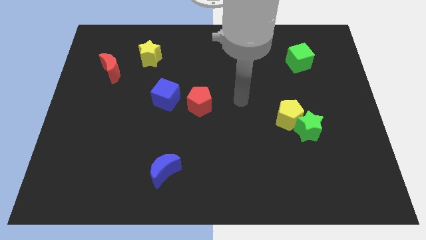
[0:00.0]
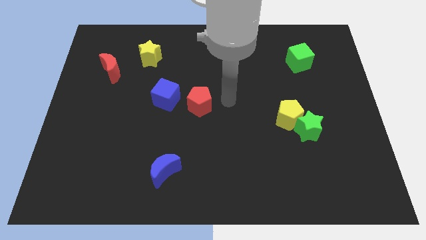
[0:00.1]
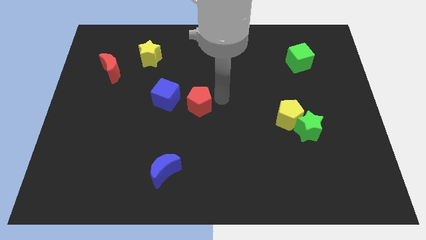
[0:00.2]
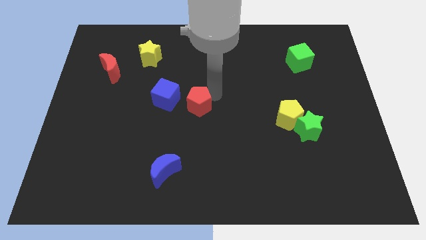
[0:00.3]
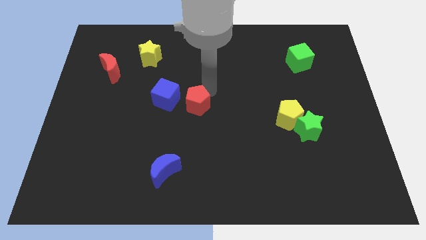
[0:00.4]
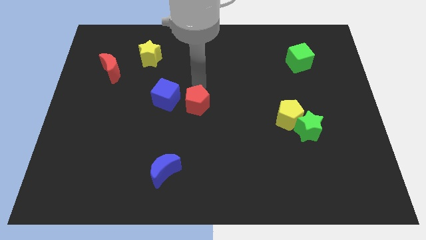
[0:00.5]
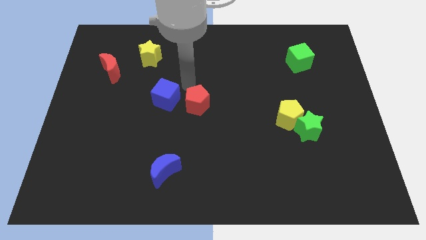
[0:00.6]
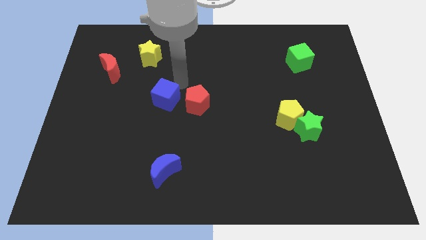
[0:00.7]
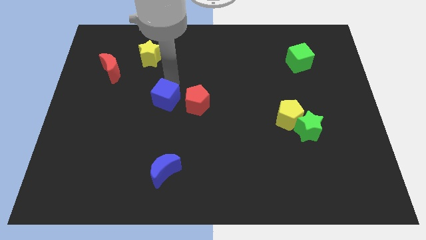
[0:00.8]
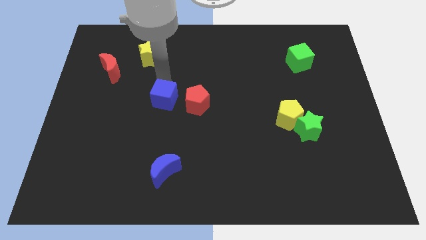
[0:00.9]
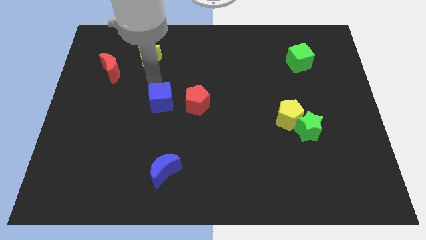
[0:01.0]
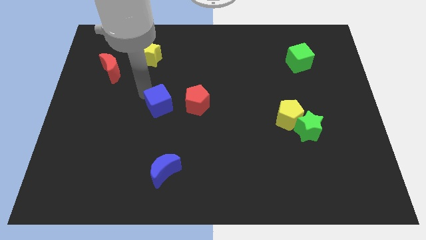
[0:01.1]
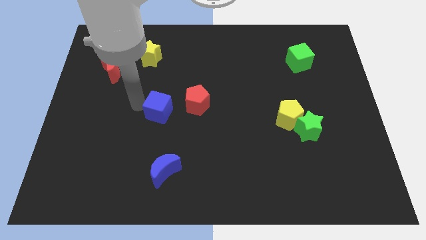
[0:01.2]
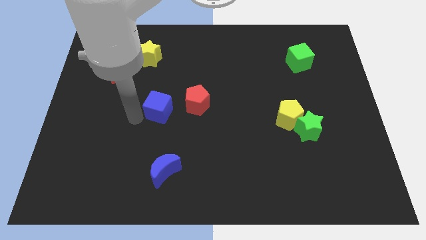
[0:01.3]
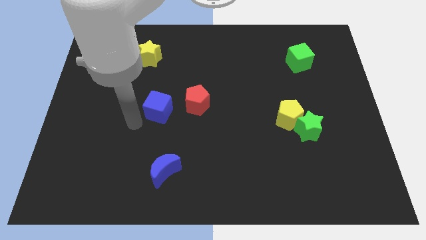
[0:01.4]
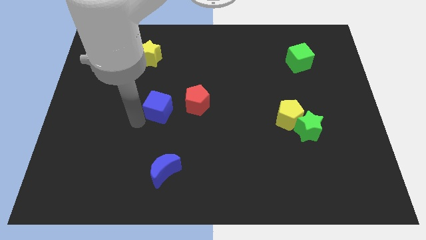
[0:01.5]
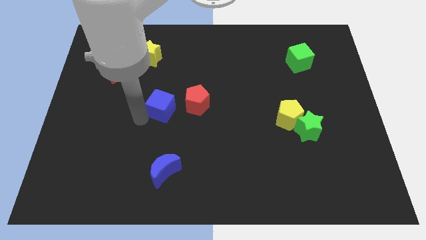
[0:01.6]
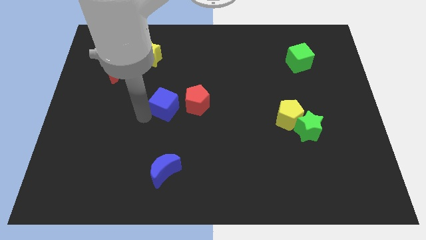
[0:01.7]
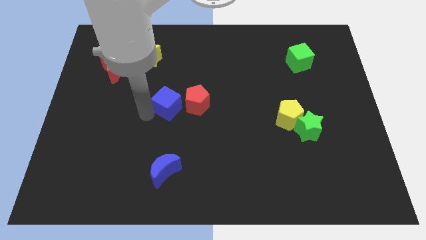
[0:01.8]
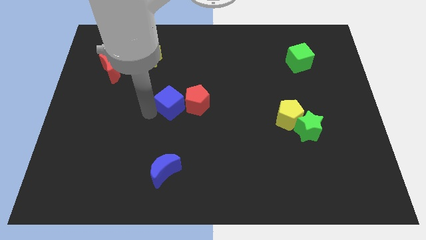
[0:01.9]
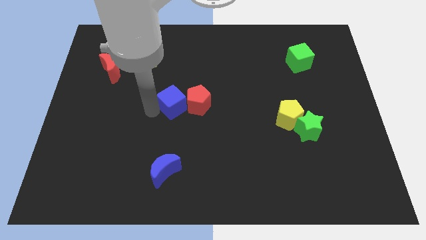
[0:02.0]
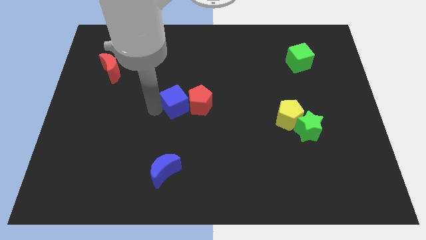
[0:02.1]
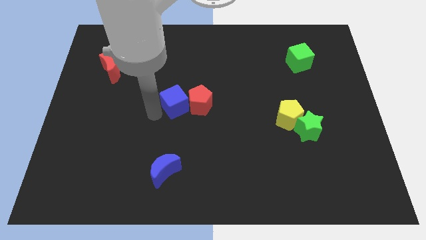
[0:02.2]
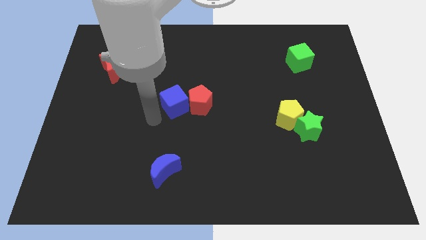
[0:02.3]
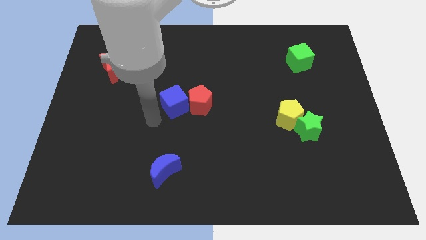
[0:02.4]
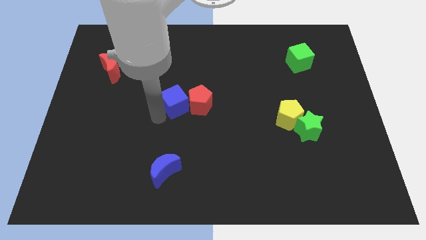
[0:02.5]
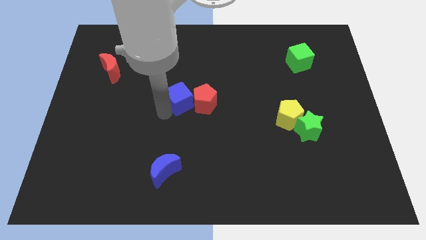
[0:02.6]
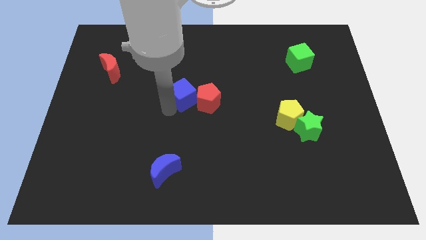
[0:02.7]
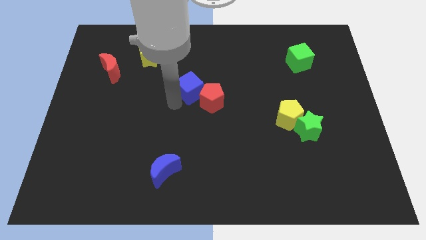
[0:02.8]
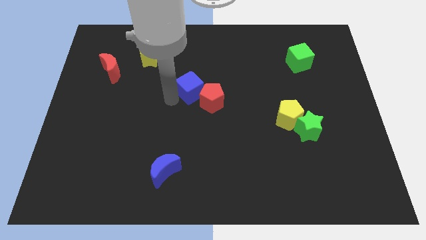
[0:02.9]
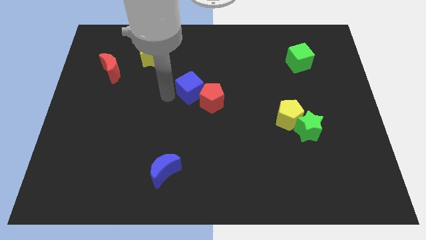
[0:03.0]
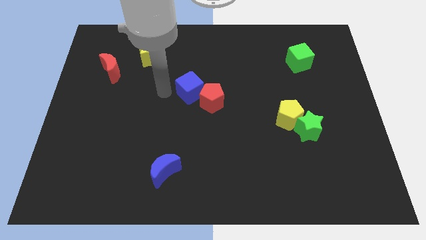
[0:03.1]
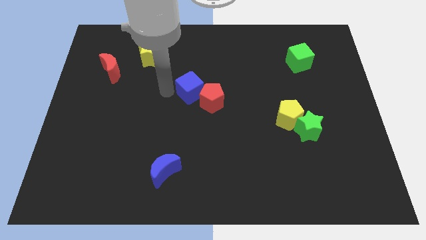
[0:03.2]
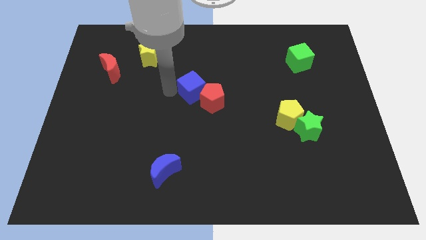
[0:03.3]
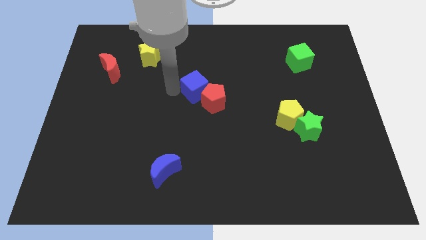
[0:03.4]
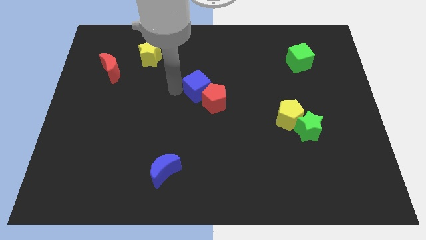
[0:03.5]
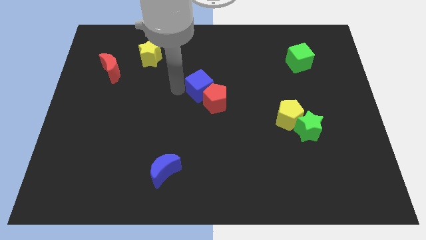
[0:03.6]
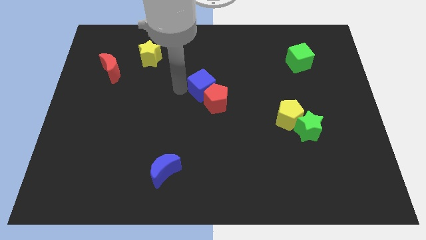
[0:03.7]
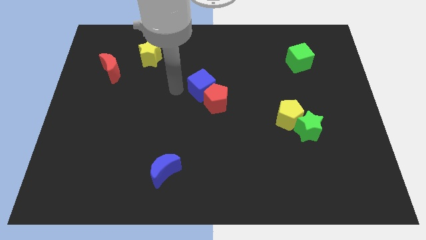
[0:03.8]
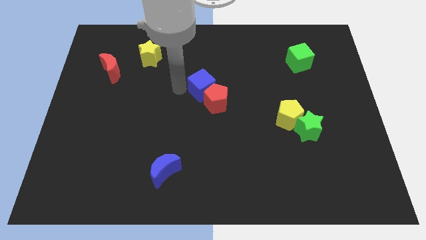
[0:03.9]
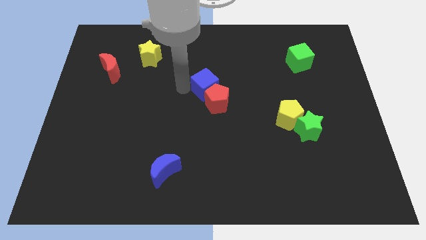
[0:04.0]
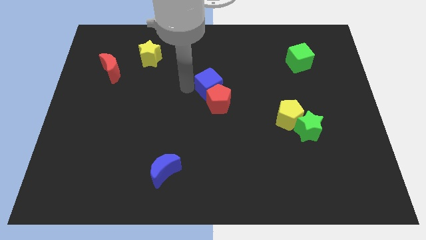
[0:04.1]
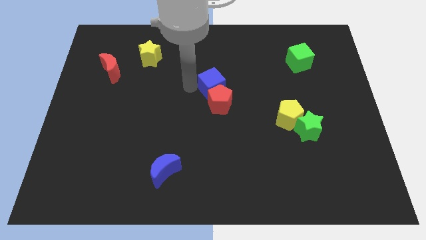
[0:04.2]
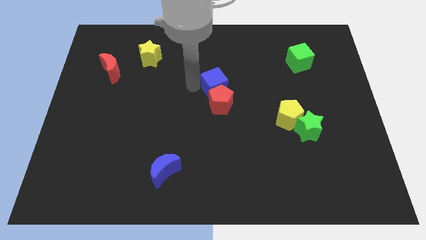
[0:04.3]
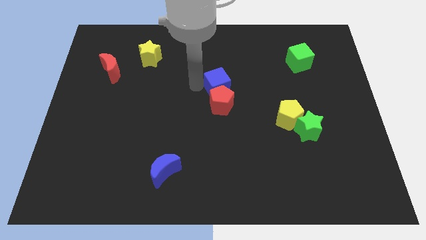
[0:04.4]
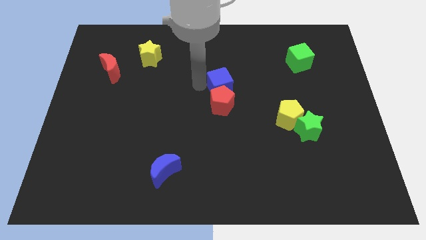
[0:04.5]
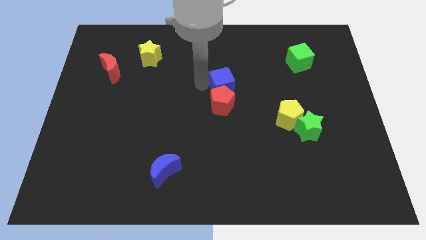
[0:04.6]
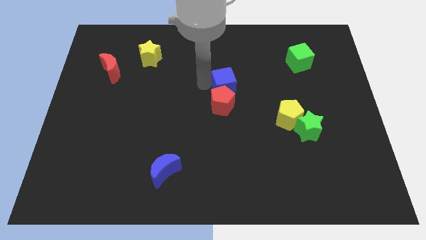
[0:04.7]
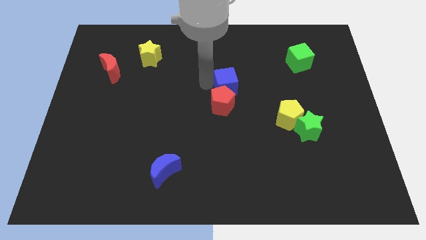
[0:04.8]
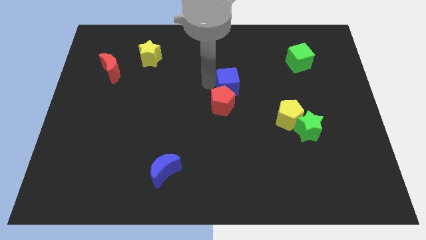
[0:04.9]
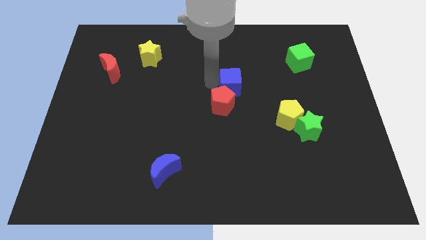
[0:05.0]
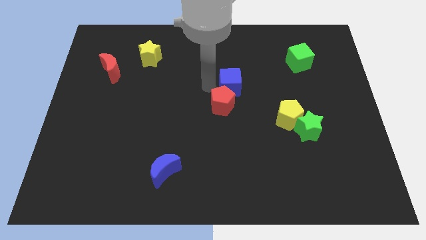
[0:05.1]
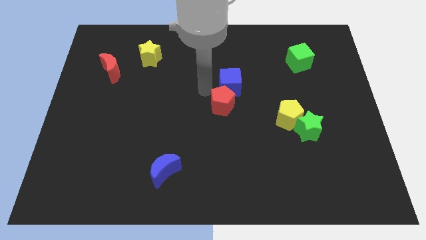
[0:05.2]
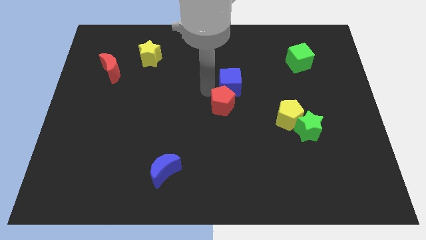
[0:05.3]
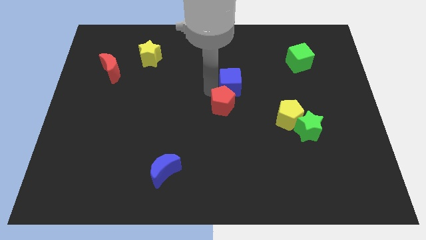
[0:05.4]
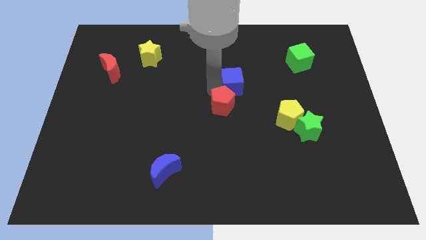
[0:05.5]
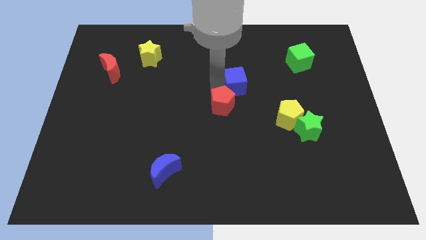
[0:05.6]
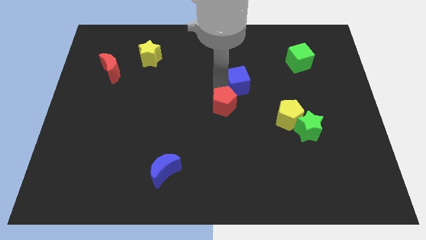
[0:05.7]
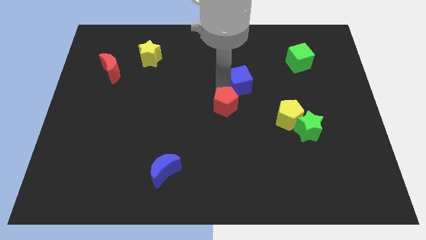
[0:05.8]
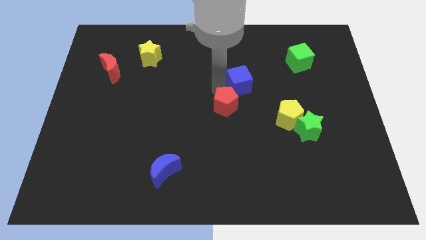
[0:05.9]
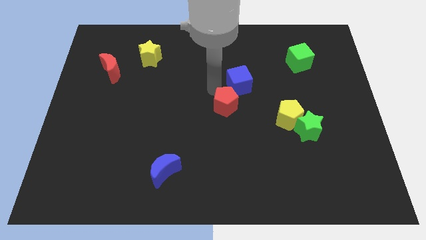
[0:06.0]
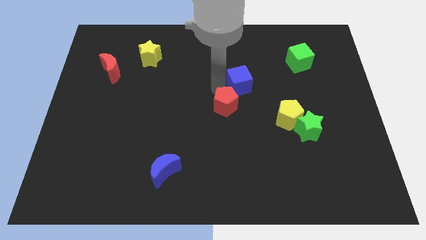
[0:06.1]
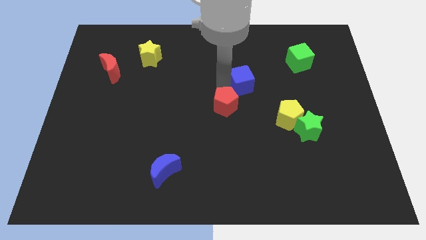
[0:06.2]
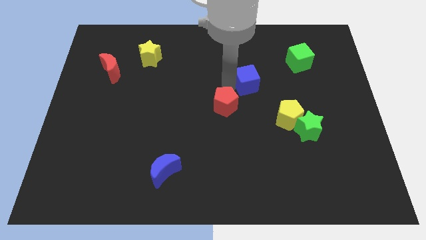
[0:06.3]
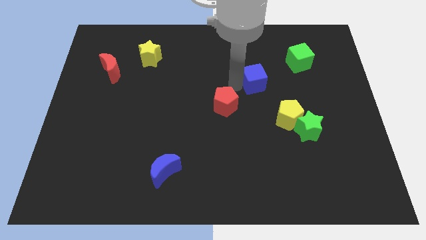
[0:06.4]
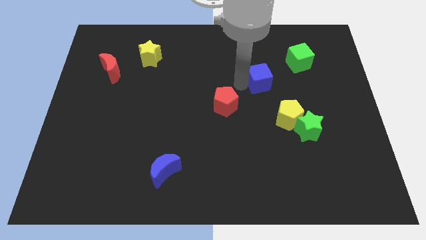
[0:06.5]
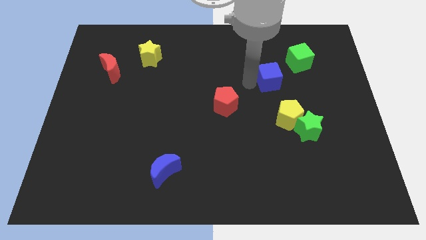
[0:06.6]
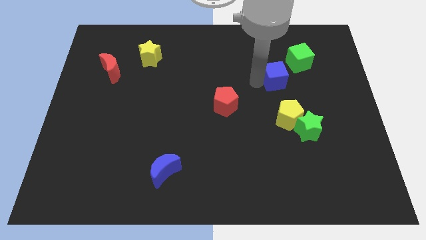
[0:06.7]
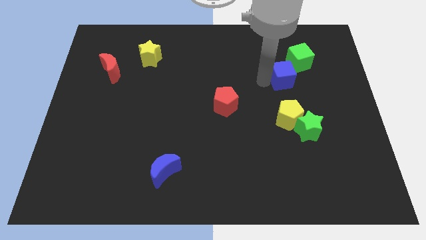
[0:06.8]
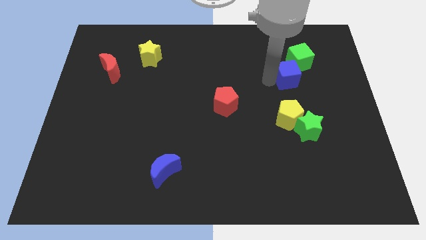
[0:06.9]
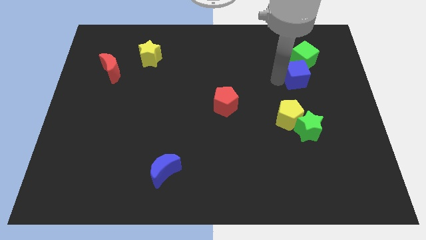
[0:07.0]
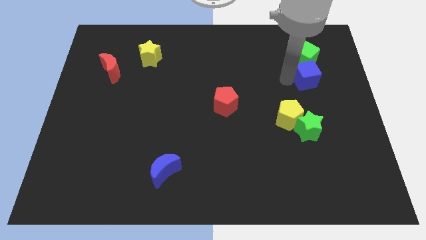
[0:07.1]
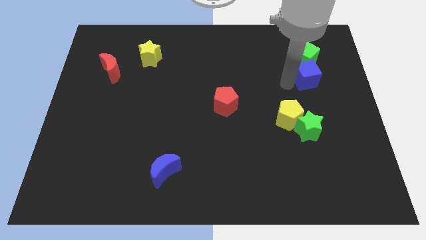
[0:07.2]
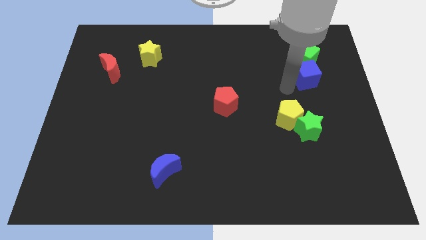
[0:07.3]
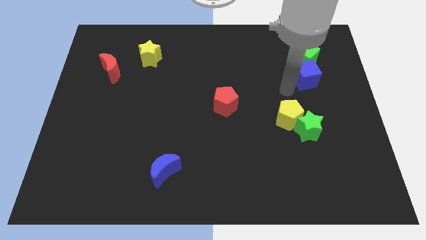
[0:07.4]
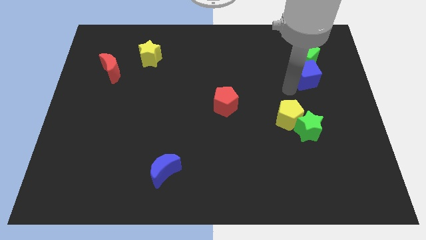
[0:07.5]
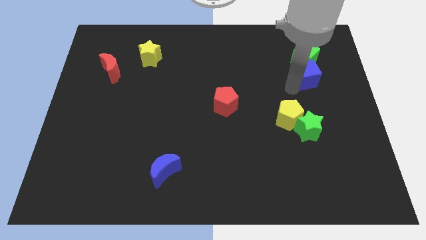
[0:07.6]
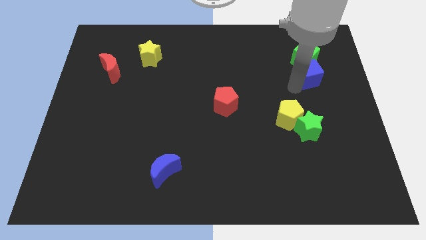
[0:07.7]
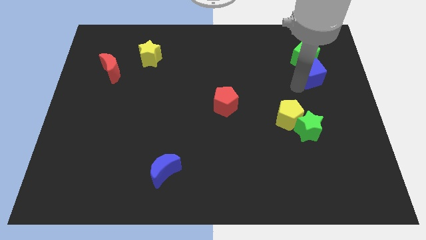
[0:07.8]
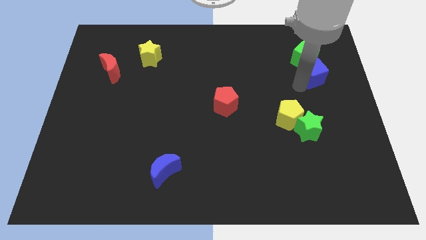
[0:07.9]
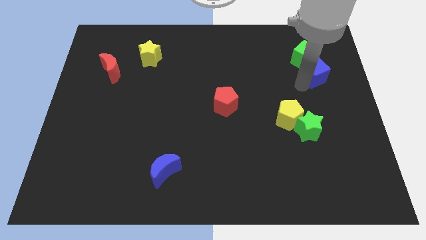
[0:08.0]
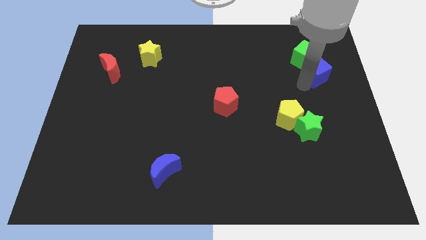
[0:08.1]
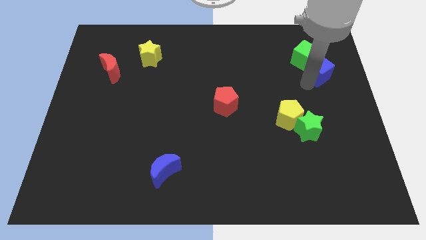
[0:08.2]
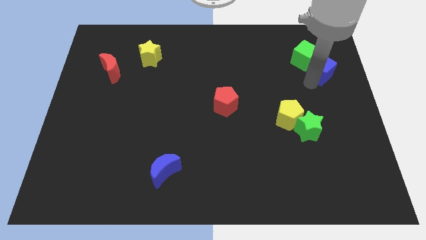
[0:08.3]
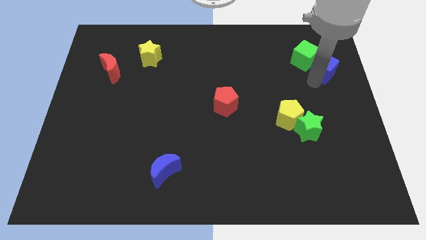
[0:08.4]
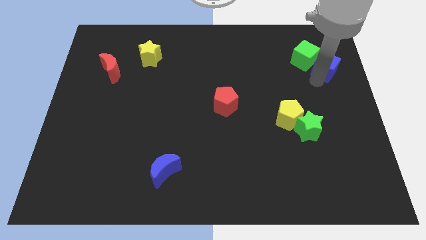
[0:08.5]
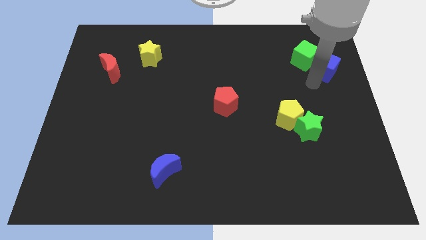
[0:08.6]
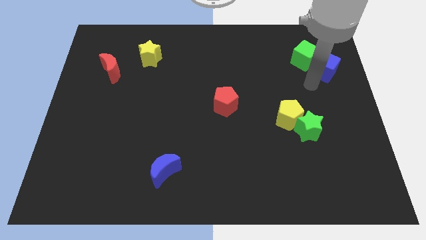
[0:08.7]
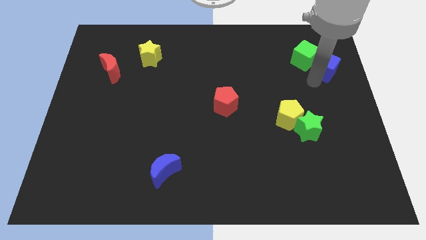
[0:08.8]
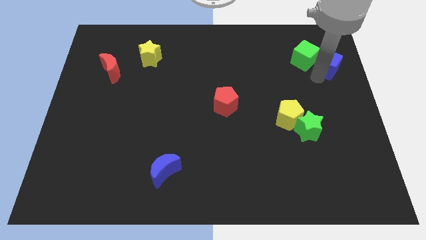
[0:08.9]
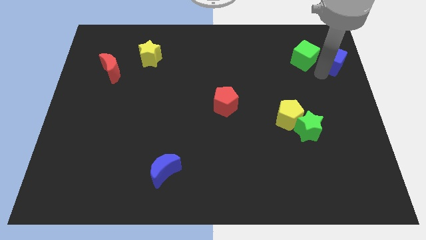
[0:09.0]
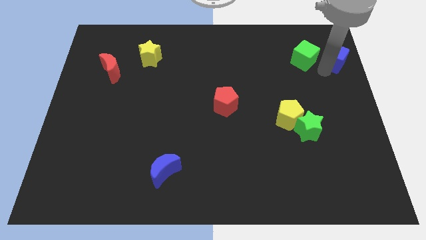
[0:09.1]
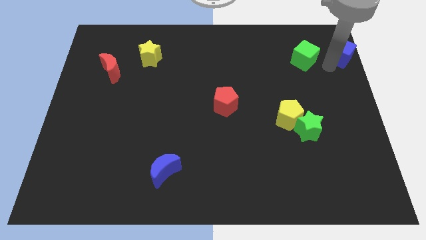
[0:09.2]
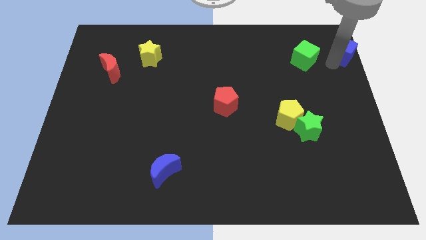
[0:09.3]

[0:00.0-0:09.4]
slide the blue cube to the top right
